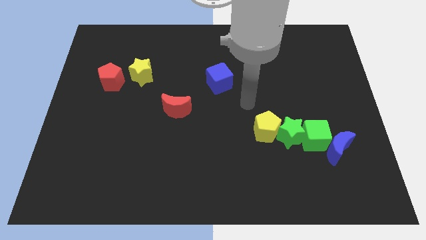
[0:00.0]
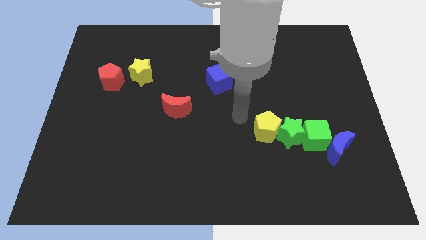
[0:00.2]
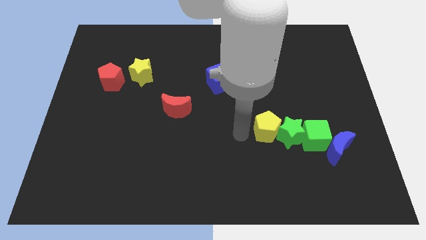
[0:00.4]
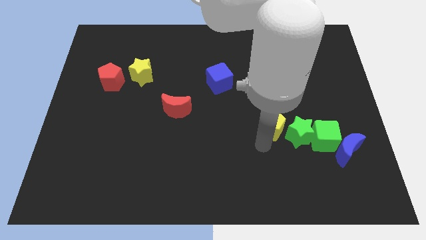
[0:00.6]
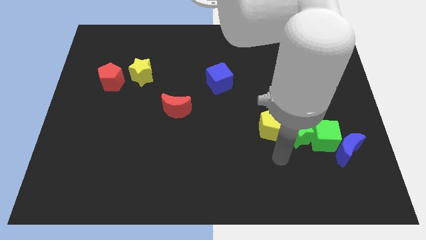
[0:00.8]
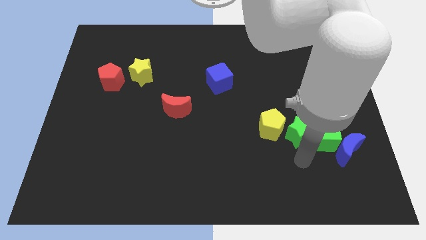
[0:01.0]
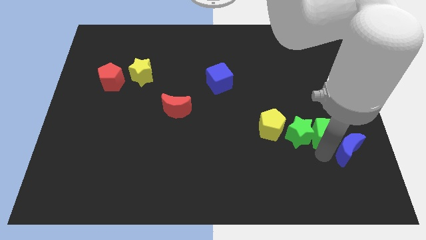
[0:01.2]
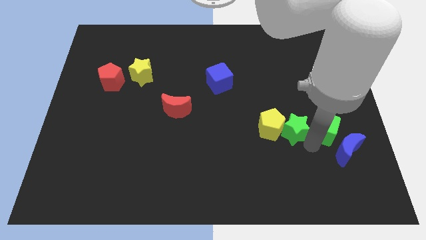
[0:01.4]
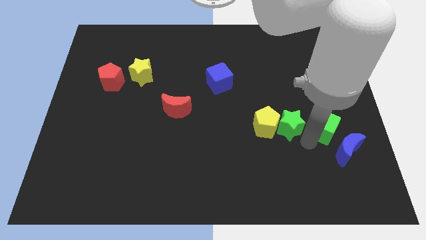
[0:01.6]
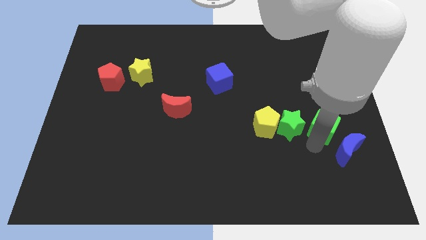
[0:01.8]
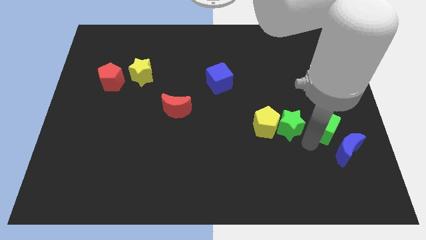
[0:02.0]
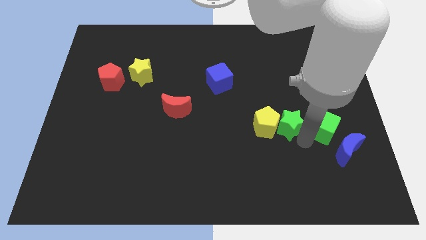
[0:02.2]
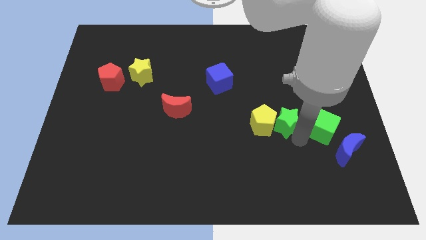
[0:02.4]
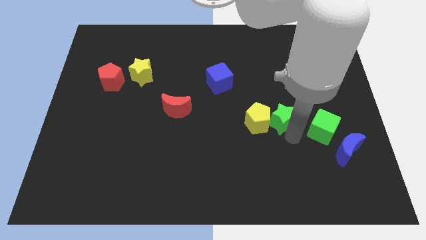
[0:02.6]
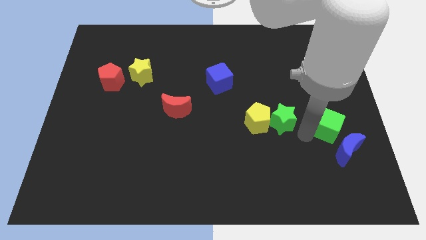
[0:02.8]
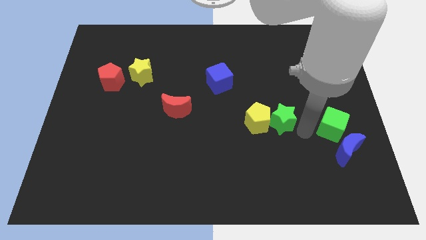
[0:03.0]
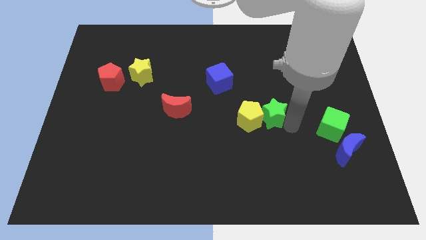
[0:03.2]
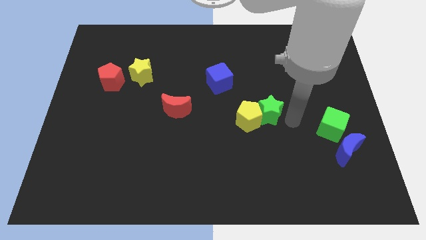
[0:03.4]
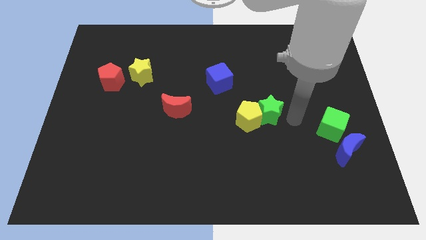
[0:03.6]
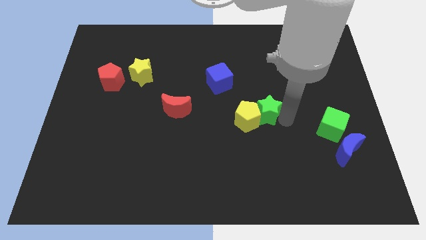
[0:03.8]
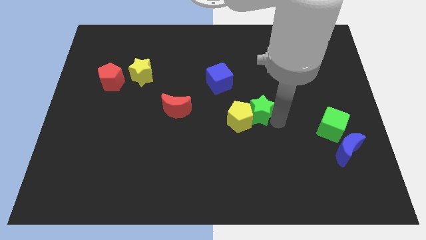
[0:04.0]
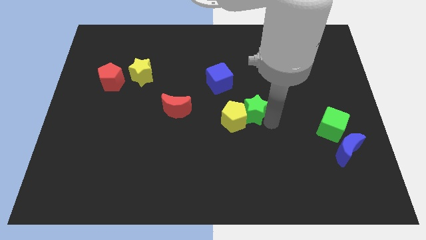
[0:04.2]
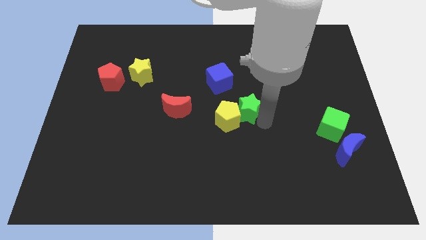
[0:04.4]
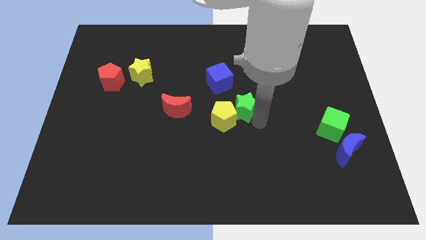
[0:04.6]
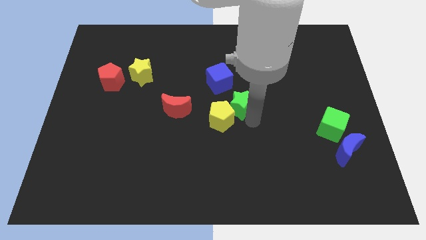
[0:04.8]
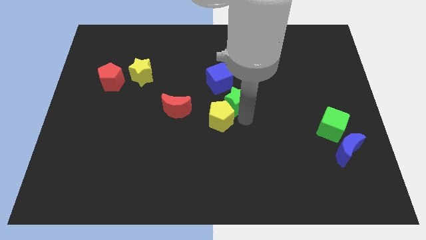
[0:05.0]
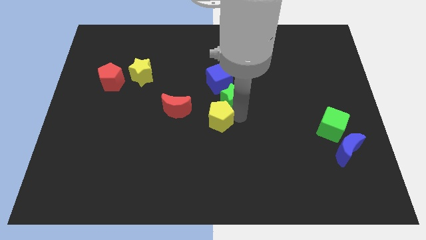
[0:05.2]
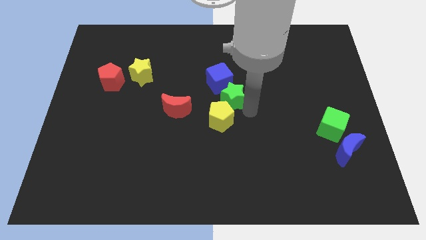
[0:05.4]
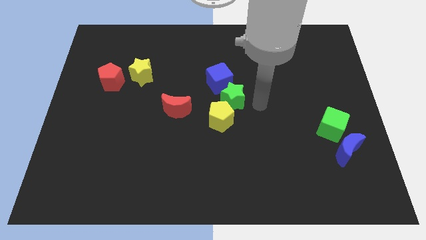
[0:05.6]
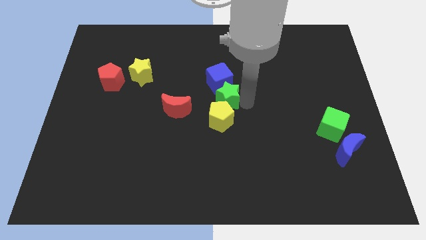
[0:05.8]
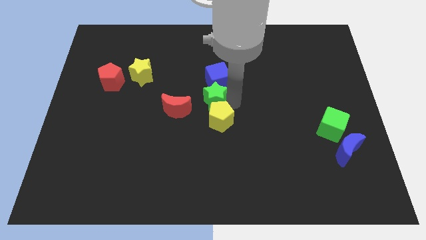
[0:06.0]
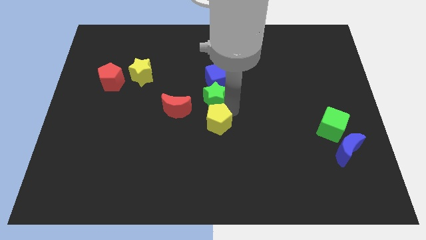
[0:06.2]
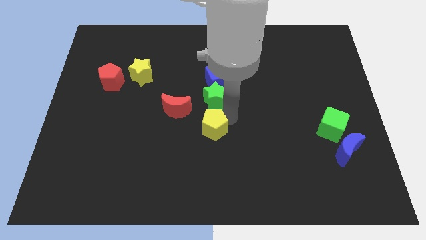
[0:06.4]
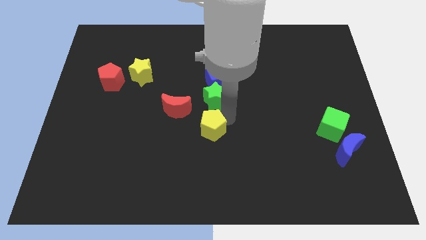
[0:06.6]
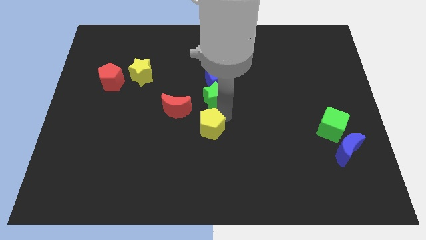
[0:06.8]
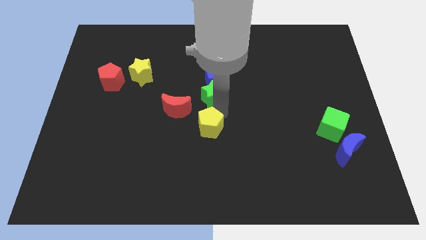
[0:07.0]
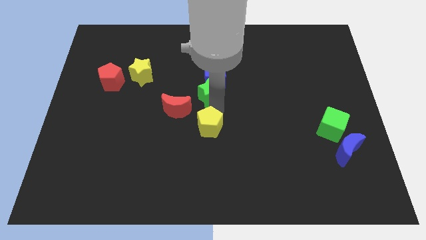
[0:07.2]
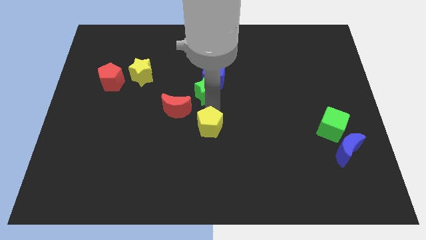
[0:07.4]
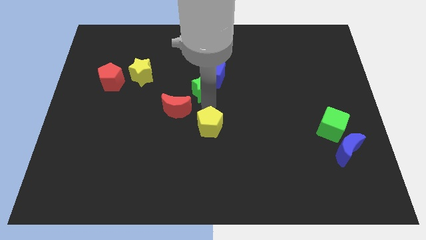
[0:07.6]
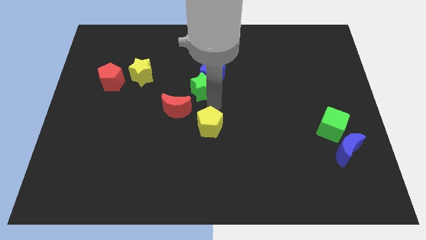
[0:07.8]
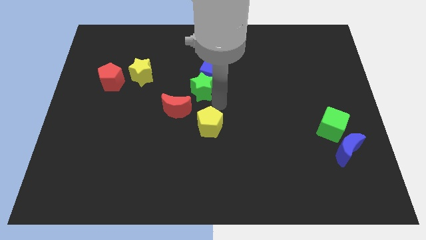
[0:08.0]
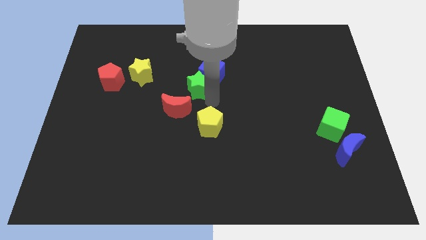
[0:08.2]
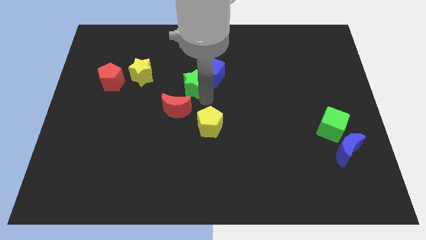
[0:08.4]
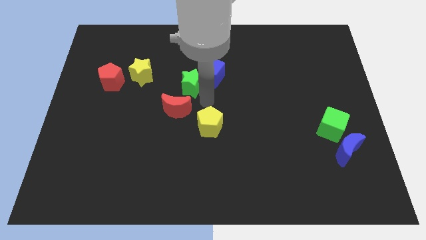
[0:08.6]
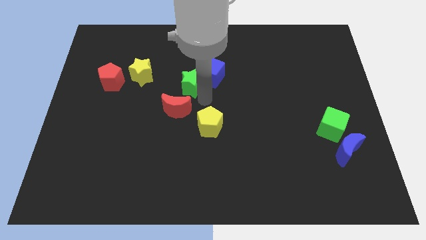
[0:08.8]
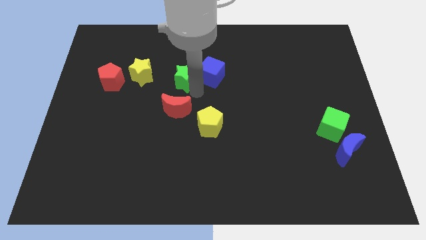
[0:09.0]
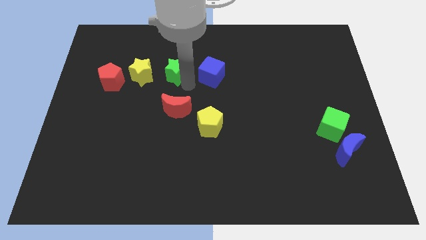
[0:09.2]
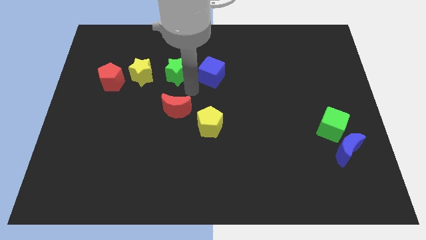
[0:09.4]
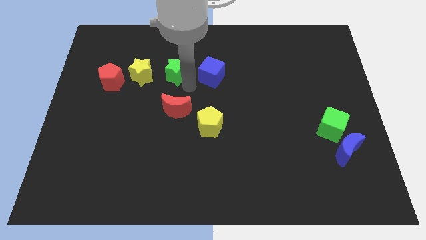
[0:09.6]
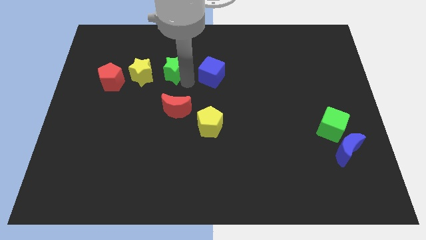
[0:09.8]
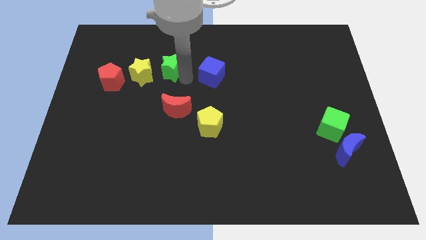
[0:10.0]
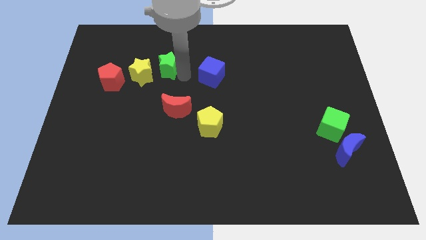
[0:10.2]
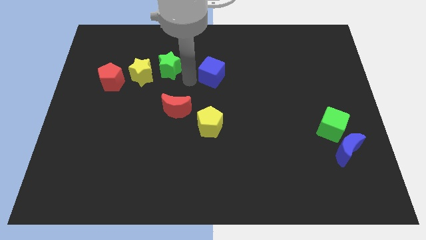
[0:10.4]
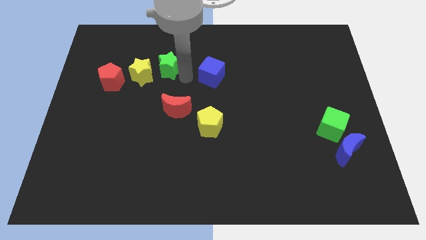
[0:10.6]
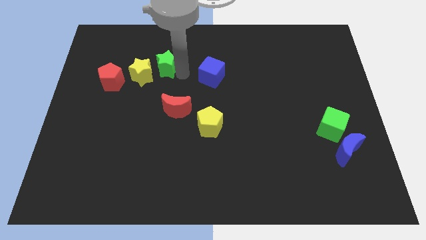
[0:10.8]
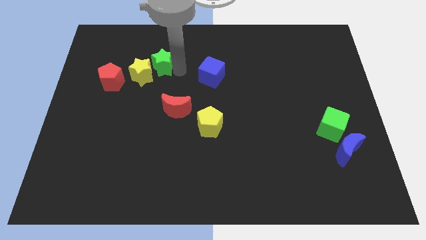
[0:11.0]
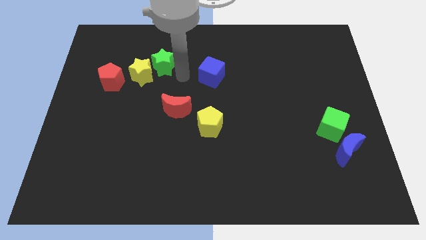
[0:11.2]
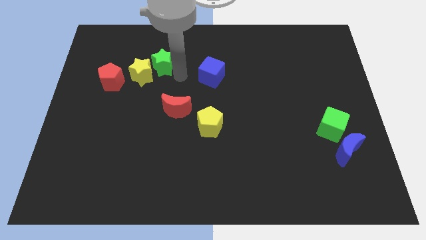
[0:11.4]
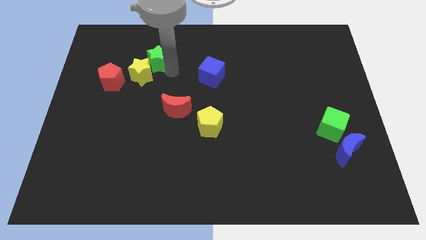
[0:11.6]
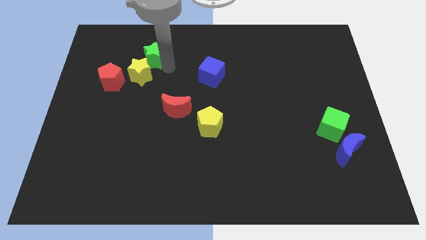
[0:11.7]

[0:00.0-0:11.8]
put the green star to the top right of the red pentagon

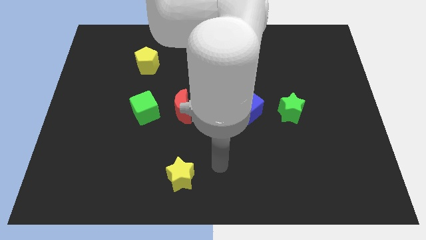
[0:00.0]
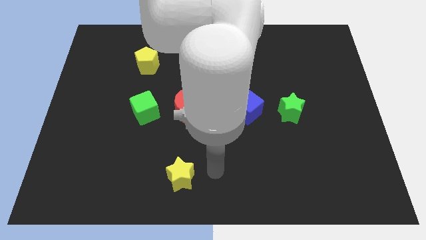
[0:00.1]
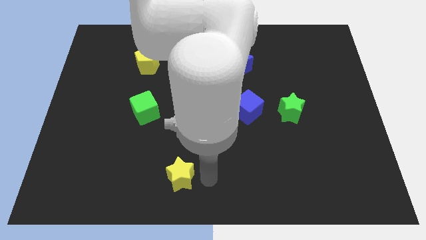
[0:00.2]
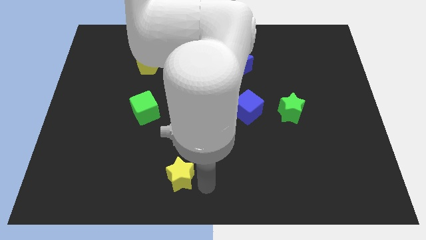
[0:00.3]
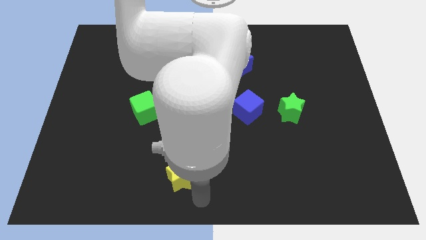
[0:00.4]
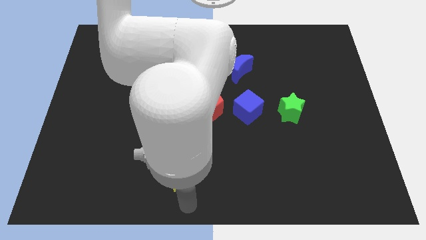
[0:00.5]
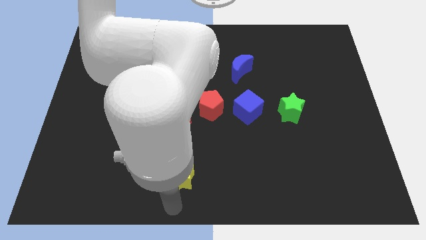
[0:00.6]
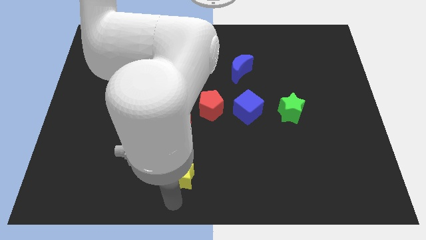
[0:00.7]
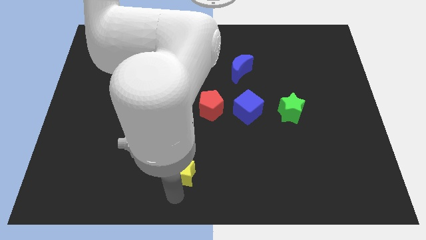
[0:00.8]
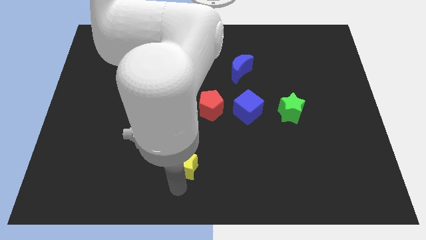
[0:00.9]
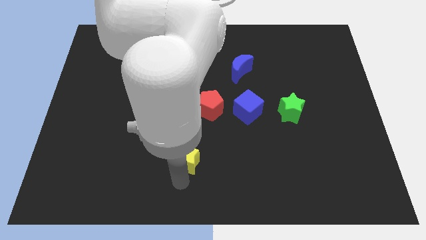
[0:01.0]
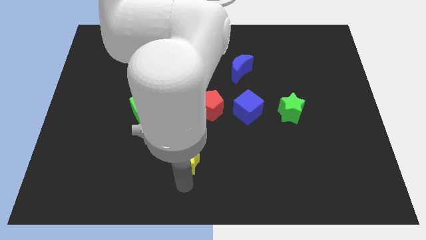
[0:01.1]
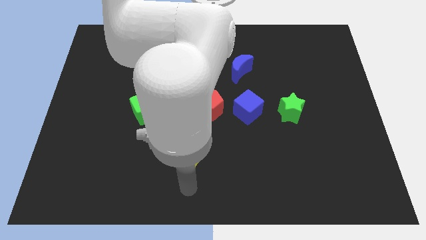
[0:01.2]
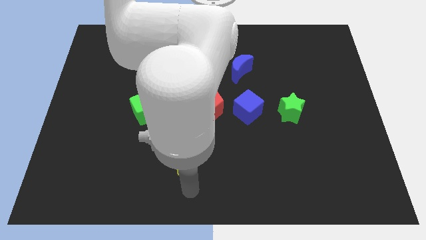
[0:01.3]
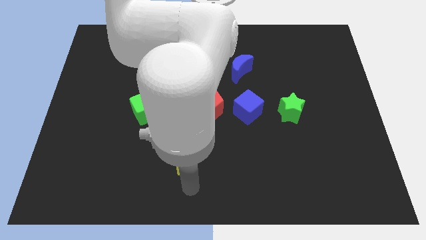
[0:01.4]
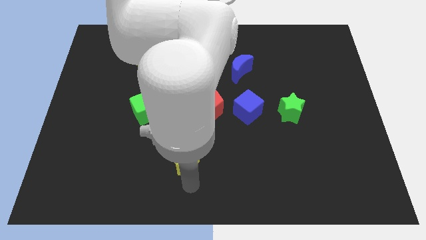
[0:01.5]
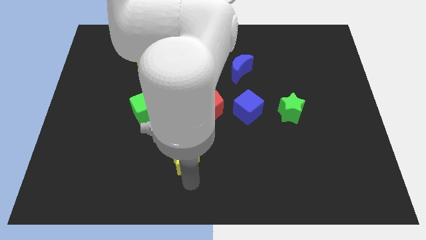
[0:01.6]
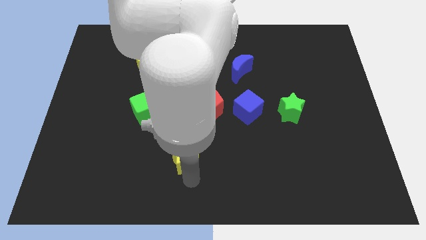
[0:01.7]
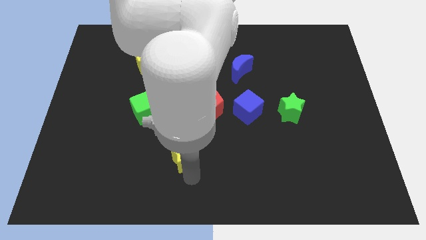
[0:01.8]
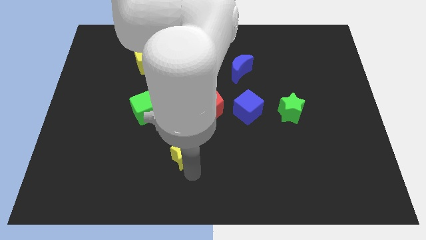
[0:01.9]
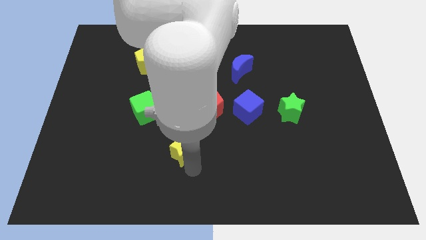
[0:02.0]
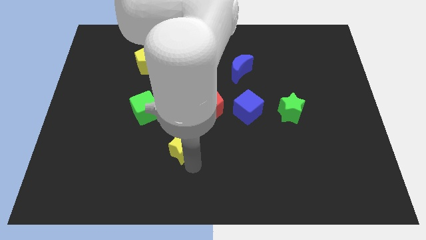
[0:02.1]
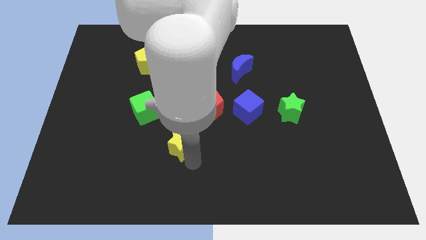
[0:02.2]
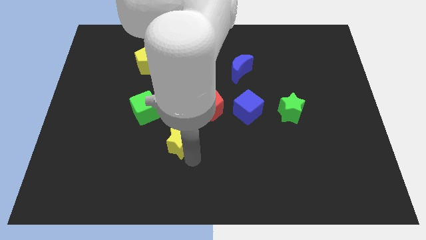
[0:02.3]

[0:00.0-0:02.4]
move the yellow star to the bottom right of the green cube
